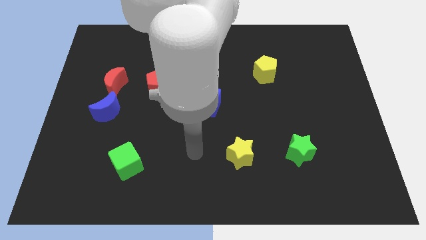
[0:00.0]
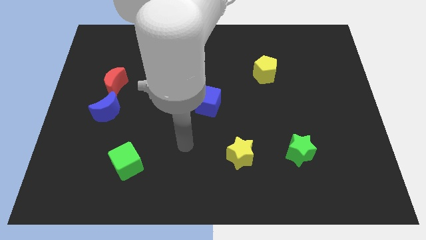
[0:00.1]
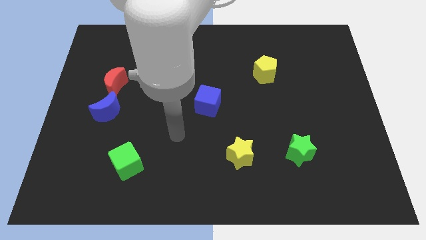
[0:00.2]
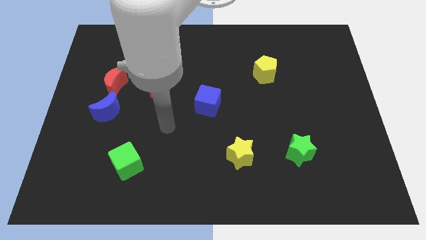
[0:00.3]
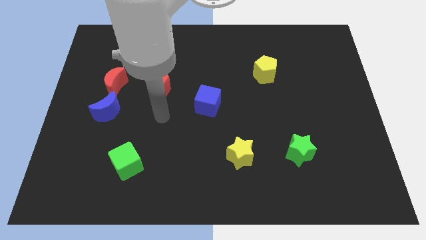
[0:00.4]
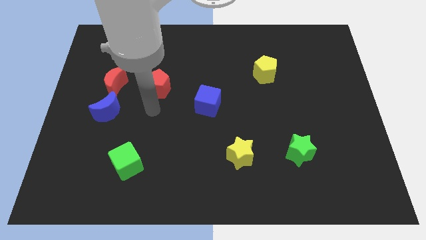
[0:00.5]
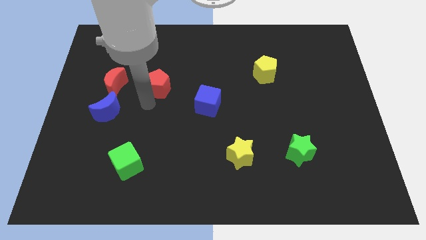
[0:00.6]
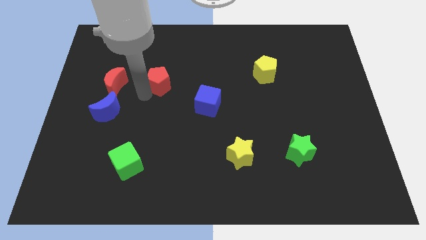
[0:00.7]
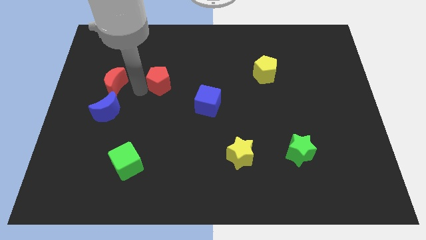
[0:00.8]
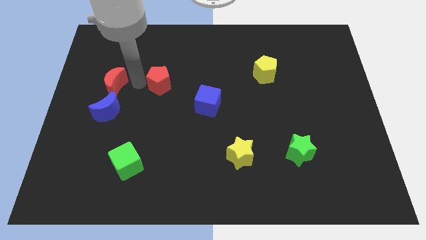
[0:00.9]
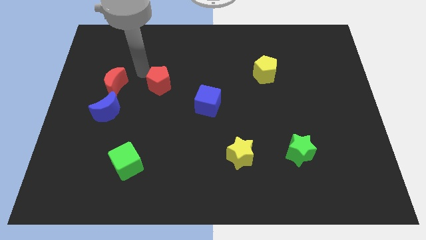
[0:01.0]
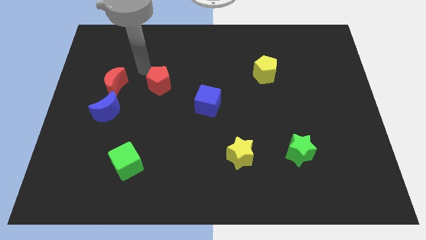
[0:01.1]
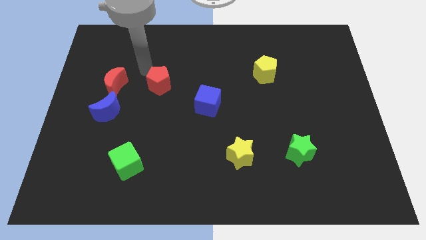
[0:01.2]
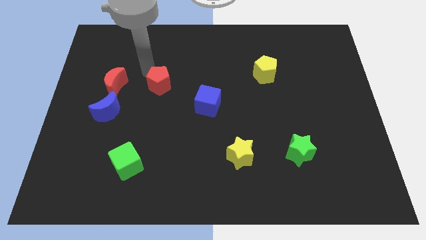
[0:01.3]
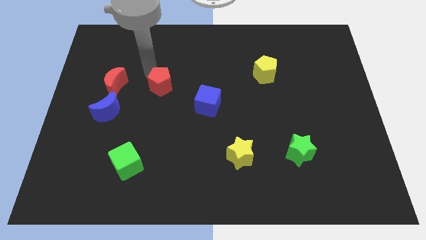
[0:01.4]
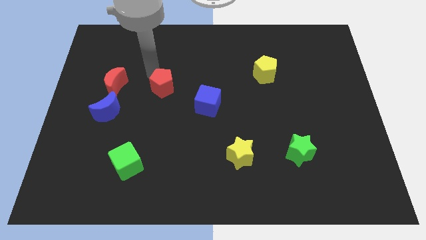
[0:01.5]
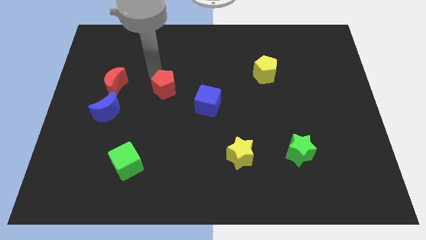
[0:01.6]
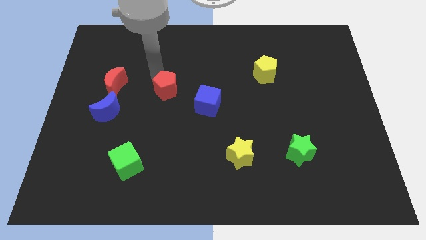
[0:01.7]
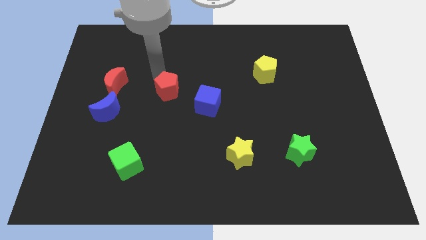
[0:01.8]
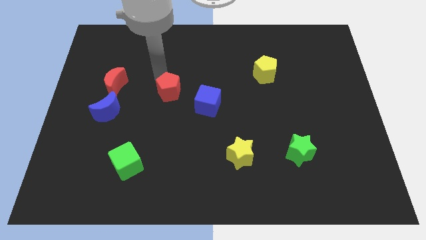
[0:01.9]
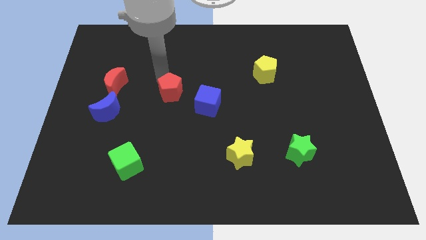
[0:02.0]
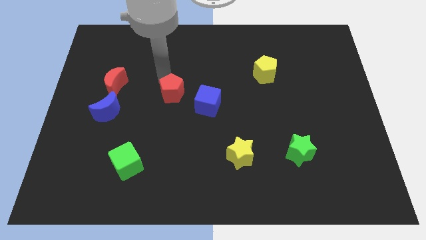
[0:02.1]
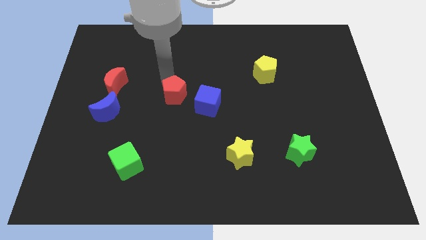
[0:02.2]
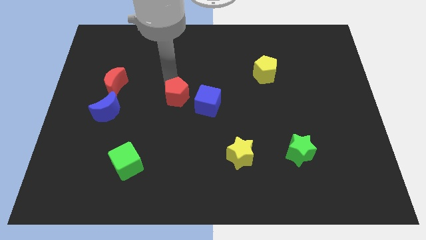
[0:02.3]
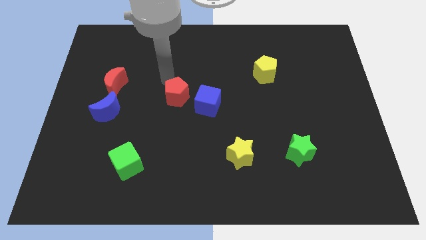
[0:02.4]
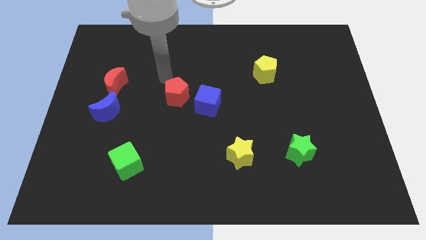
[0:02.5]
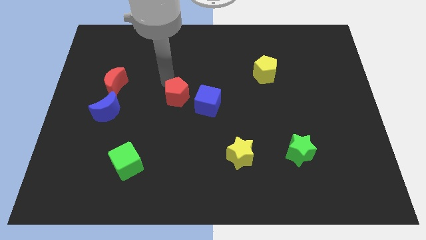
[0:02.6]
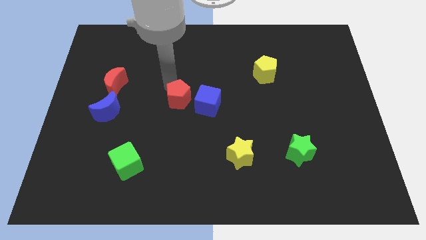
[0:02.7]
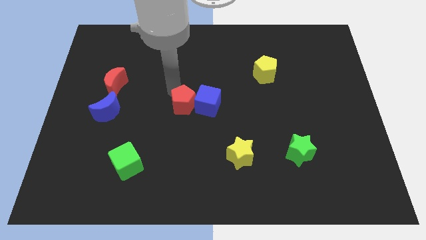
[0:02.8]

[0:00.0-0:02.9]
slide the red pentagon down and right a little

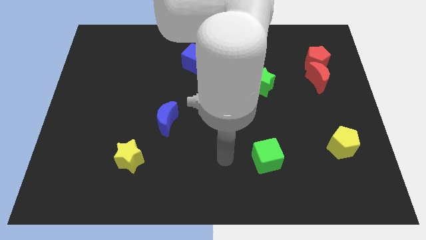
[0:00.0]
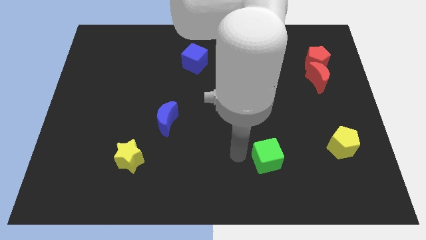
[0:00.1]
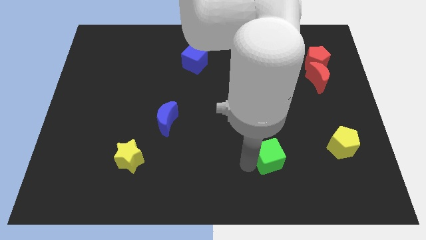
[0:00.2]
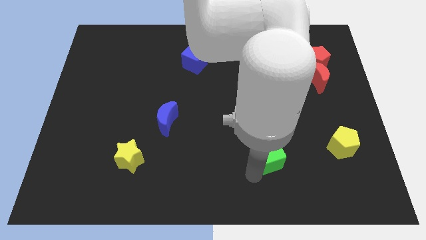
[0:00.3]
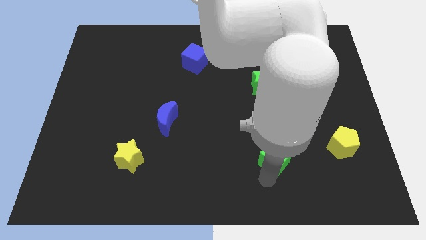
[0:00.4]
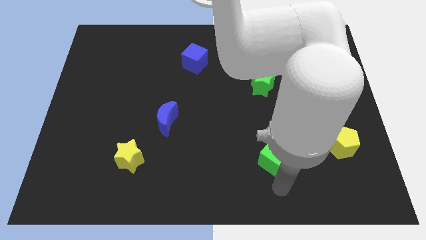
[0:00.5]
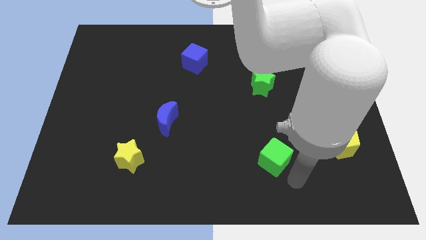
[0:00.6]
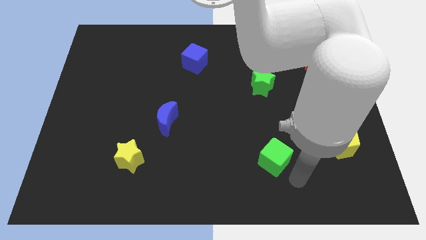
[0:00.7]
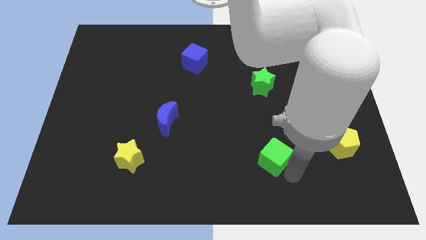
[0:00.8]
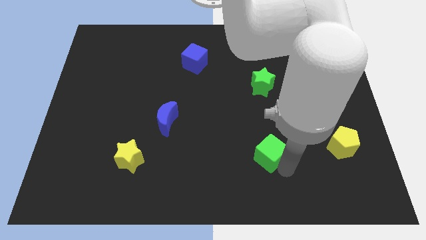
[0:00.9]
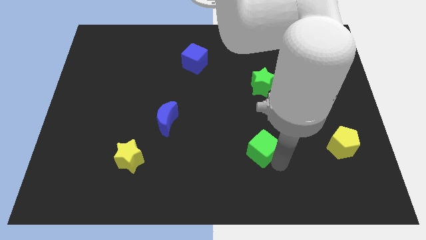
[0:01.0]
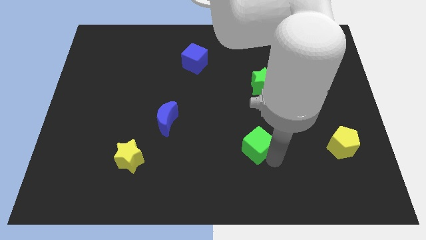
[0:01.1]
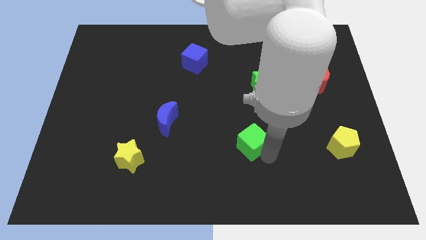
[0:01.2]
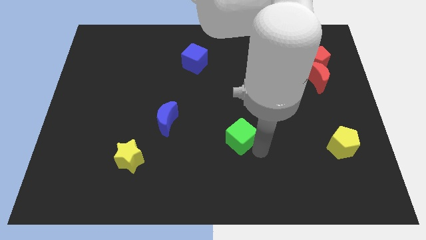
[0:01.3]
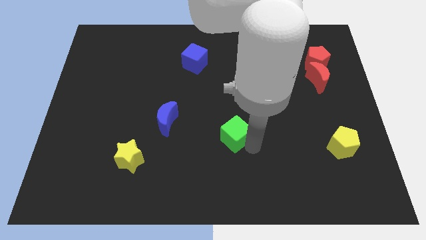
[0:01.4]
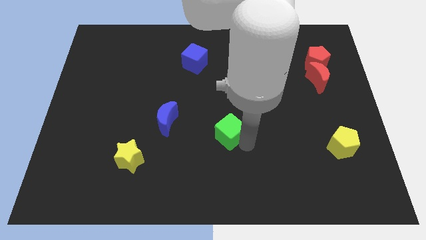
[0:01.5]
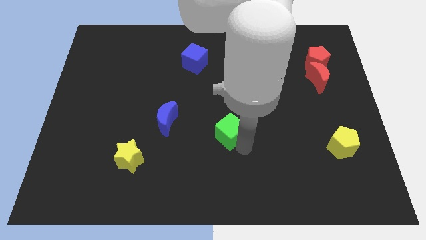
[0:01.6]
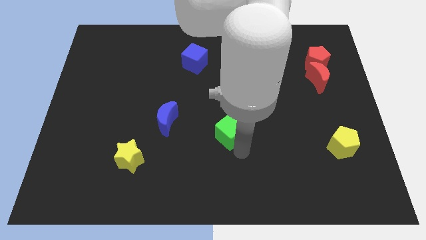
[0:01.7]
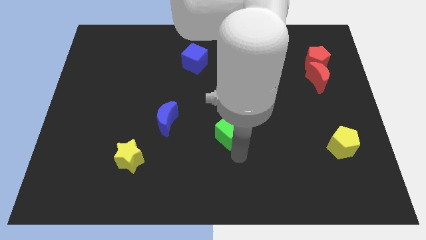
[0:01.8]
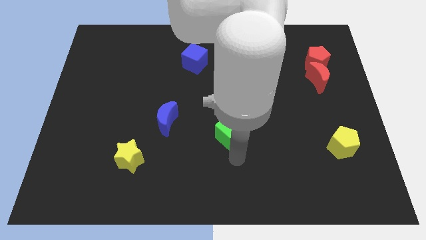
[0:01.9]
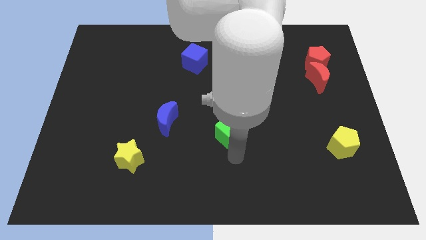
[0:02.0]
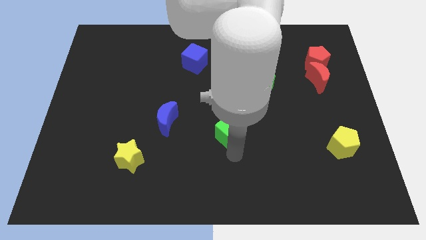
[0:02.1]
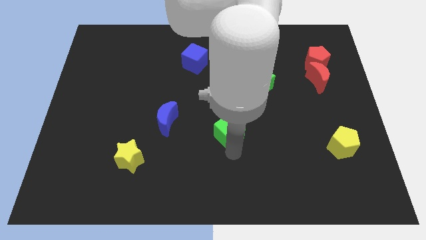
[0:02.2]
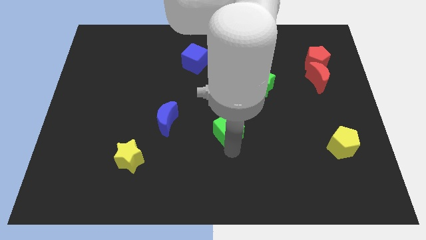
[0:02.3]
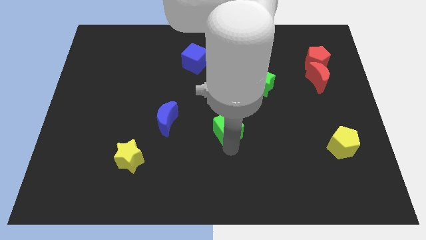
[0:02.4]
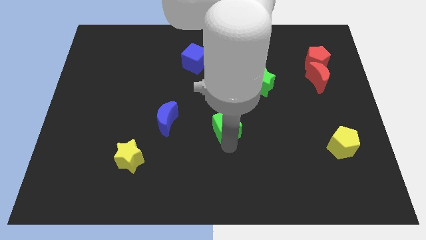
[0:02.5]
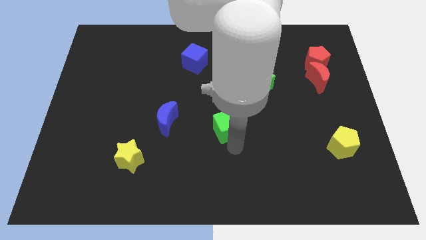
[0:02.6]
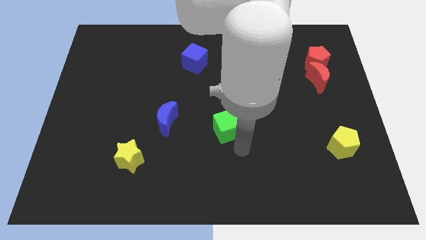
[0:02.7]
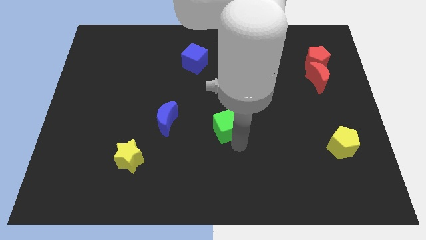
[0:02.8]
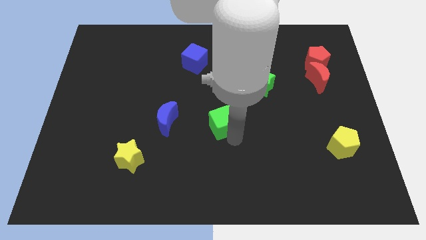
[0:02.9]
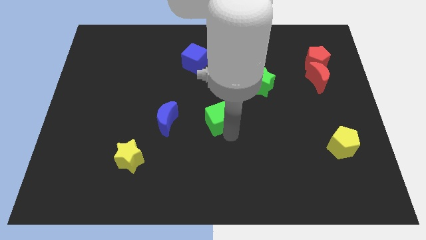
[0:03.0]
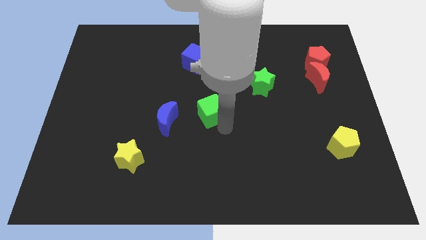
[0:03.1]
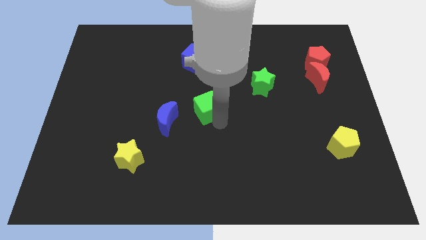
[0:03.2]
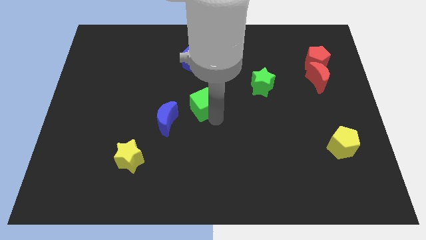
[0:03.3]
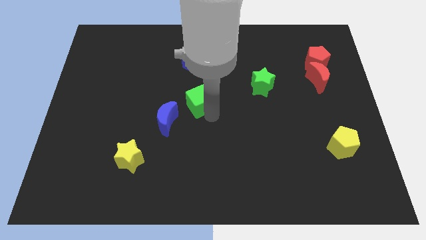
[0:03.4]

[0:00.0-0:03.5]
move the green cube up and left

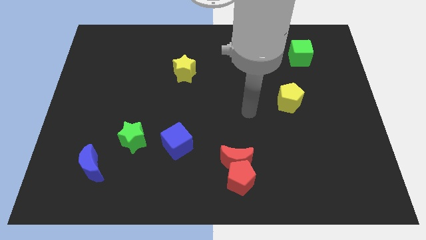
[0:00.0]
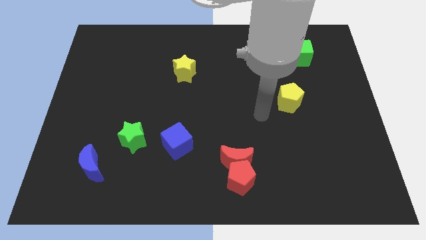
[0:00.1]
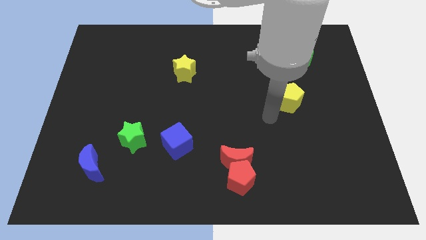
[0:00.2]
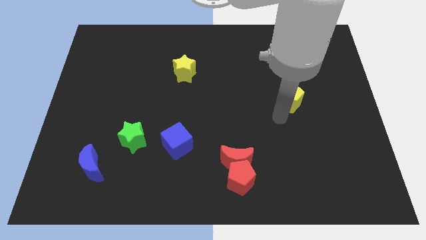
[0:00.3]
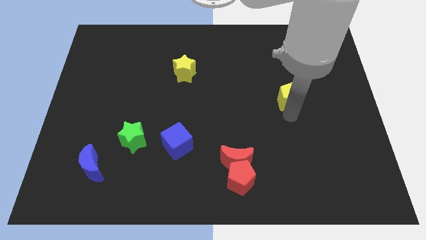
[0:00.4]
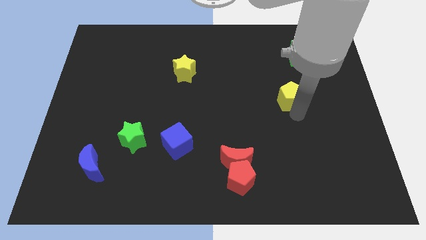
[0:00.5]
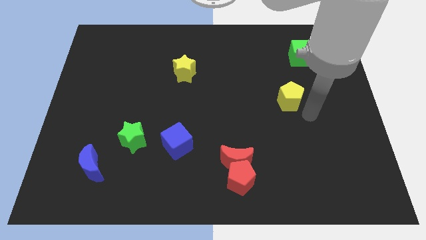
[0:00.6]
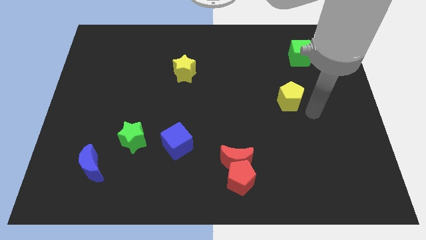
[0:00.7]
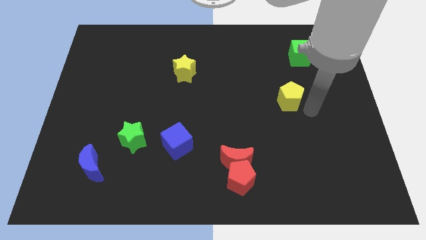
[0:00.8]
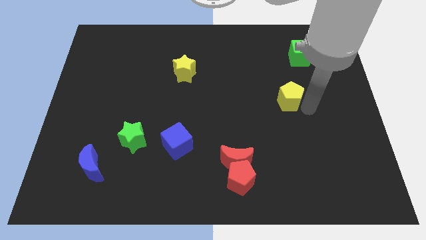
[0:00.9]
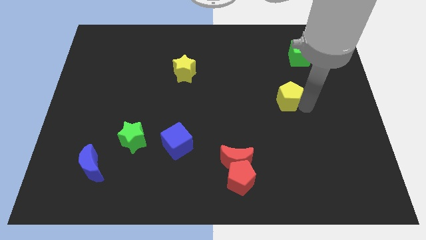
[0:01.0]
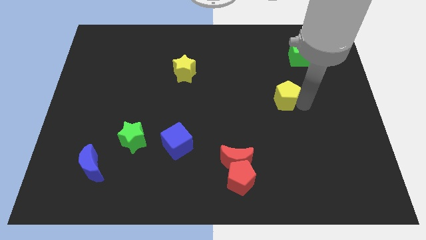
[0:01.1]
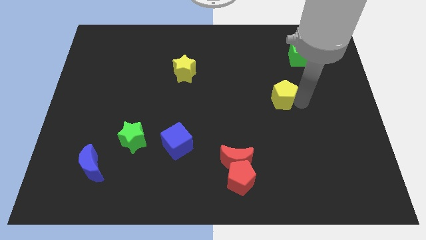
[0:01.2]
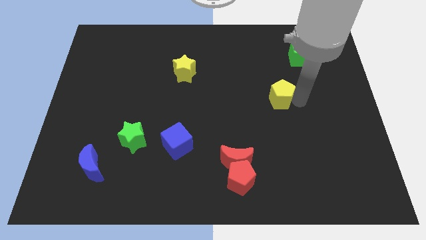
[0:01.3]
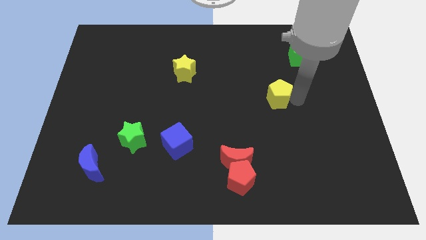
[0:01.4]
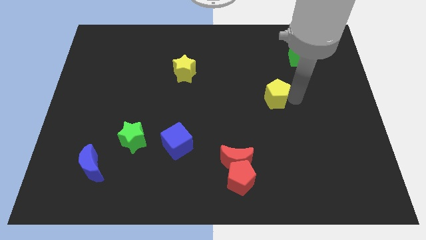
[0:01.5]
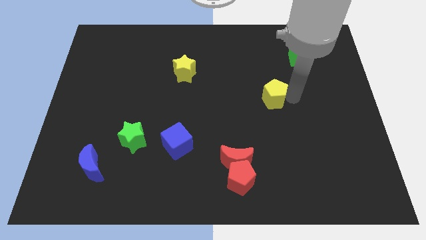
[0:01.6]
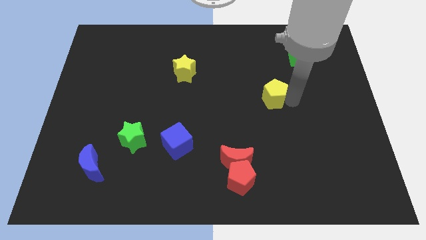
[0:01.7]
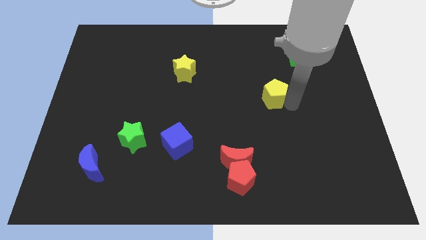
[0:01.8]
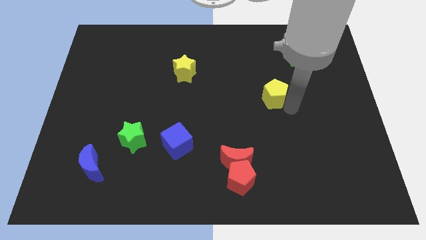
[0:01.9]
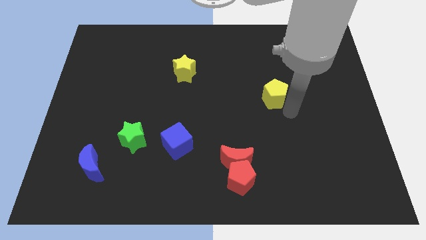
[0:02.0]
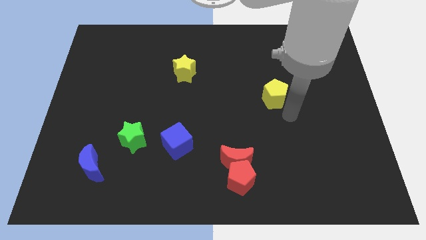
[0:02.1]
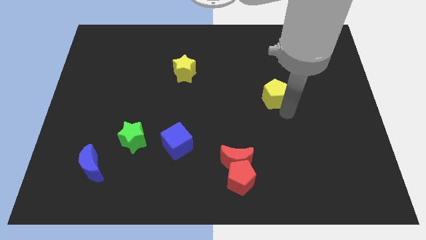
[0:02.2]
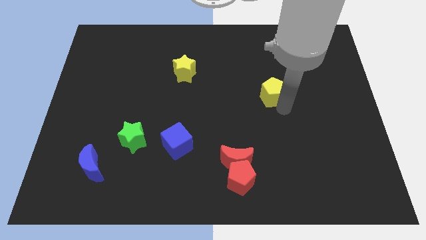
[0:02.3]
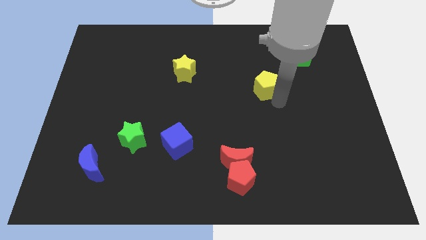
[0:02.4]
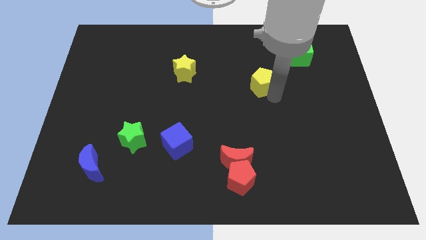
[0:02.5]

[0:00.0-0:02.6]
slightly move the yellow pentagon up and then left
